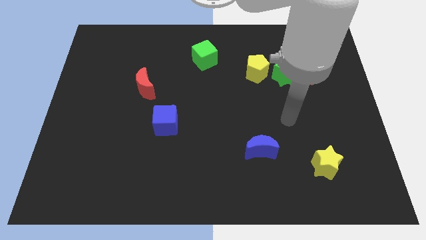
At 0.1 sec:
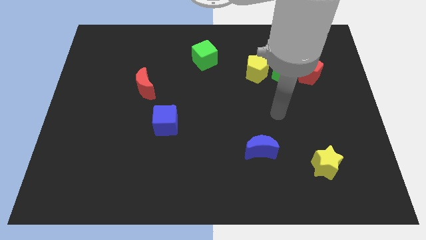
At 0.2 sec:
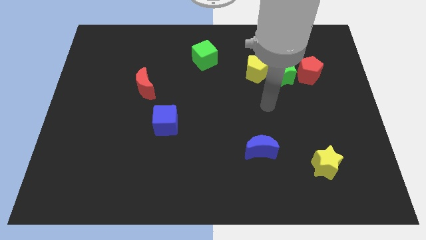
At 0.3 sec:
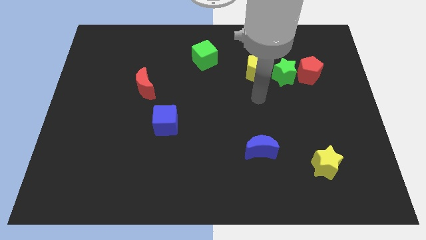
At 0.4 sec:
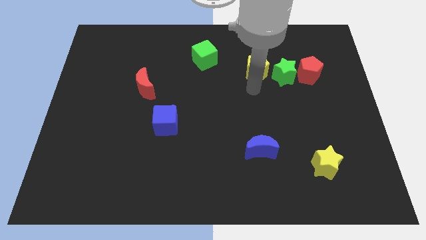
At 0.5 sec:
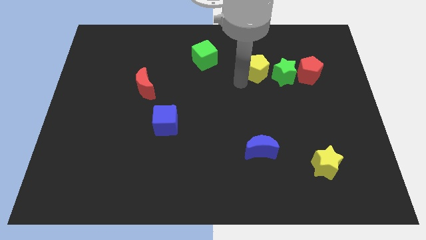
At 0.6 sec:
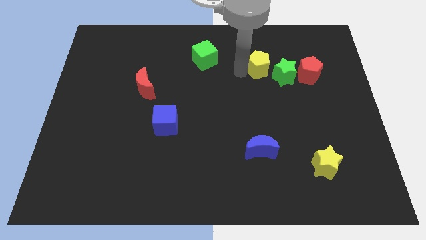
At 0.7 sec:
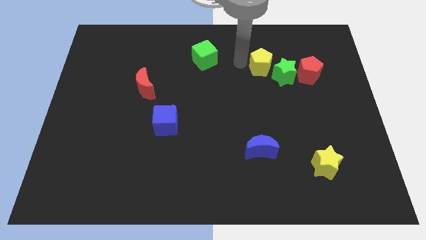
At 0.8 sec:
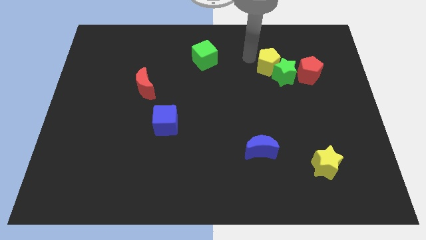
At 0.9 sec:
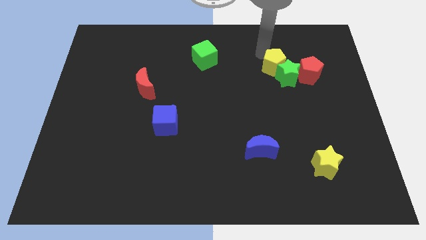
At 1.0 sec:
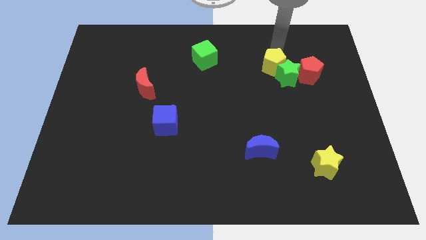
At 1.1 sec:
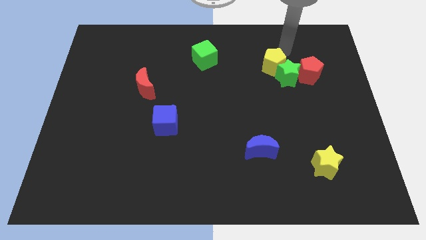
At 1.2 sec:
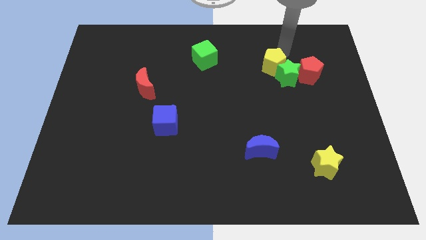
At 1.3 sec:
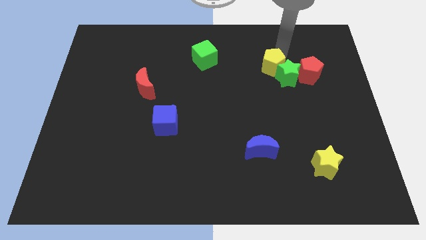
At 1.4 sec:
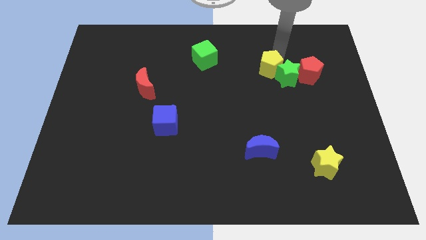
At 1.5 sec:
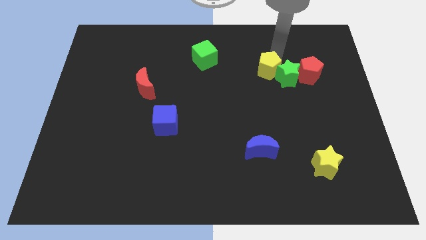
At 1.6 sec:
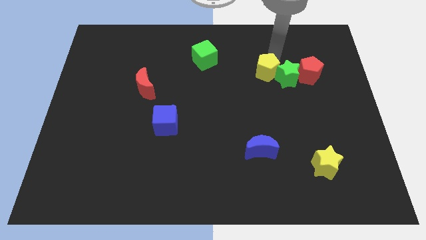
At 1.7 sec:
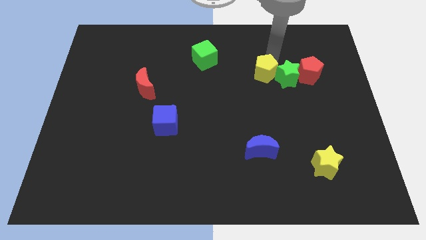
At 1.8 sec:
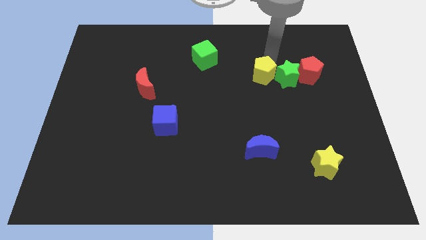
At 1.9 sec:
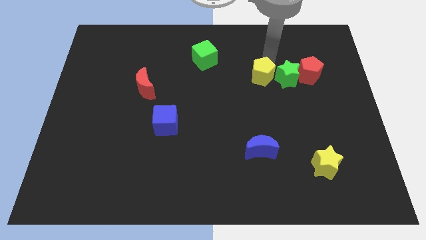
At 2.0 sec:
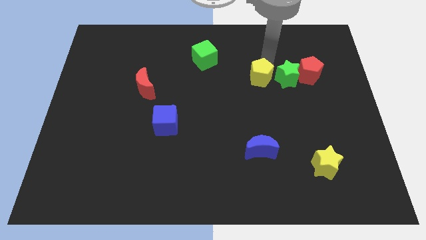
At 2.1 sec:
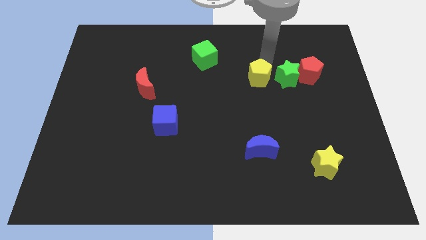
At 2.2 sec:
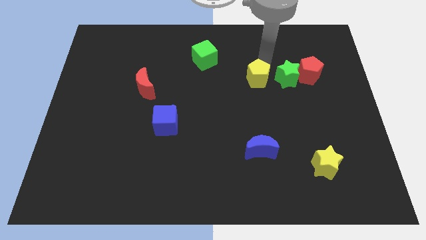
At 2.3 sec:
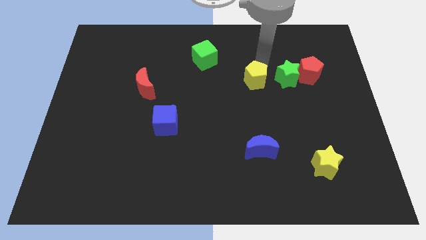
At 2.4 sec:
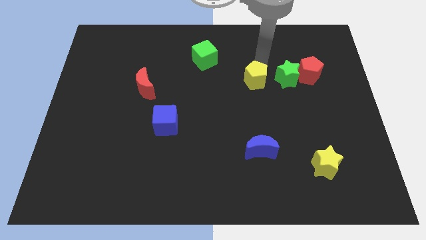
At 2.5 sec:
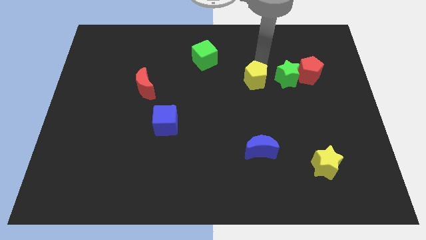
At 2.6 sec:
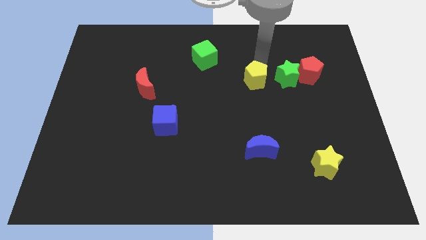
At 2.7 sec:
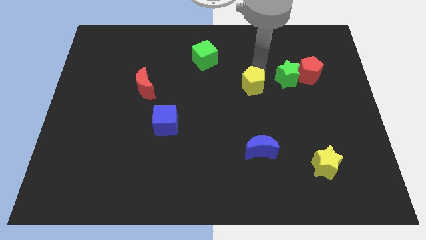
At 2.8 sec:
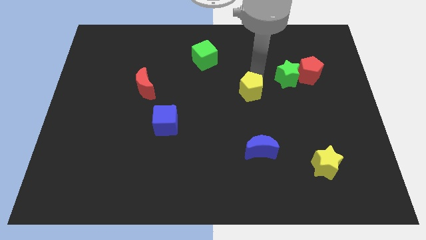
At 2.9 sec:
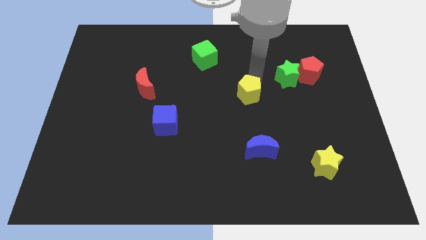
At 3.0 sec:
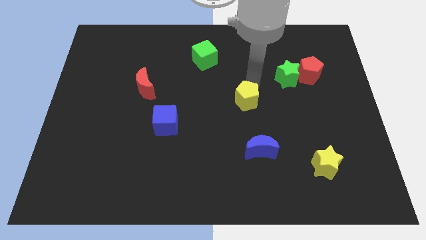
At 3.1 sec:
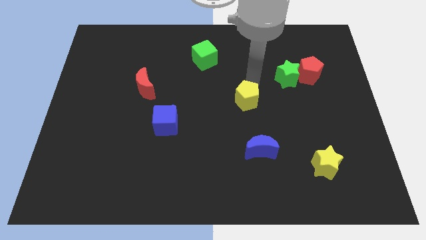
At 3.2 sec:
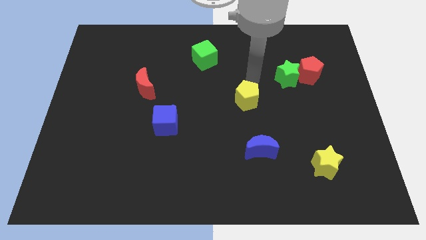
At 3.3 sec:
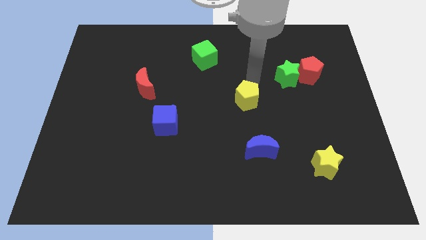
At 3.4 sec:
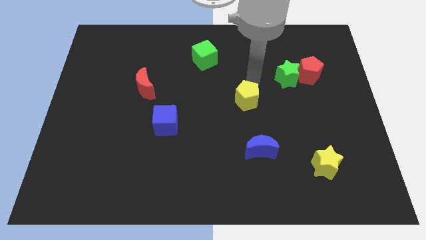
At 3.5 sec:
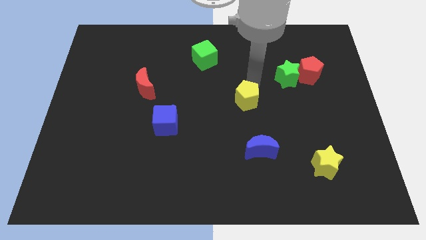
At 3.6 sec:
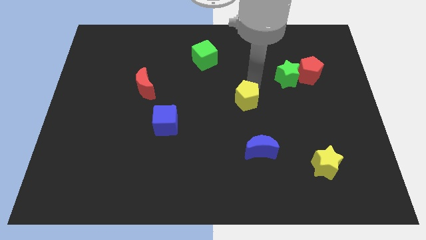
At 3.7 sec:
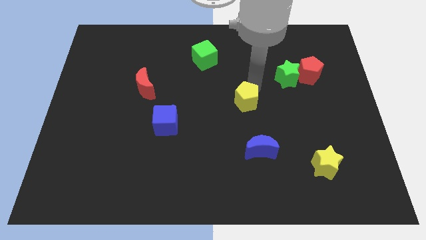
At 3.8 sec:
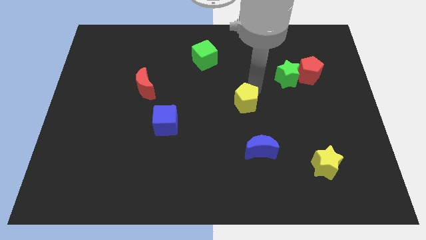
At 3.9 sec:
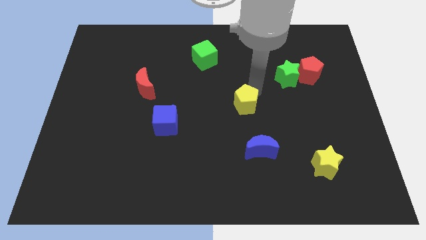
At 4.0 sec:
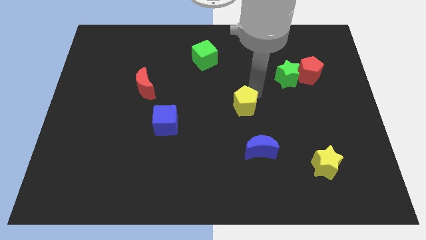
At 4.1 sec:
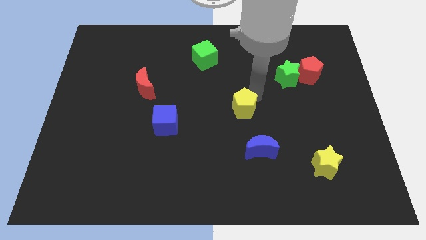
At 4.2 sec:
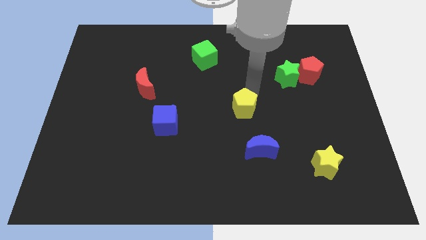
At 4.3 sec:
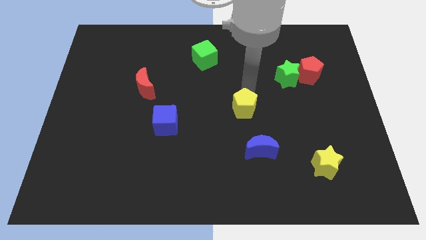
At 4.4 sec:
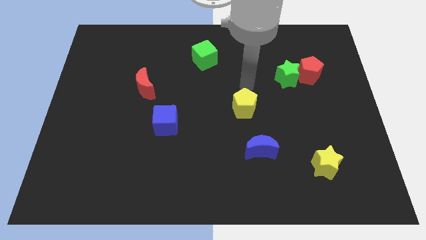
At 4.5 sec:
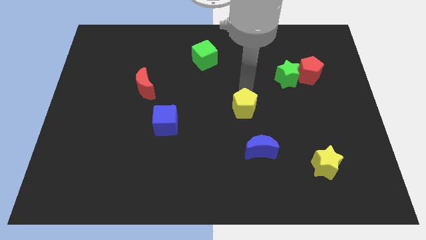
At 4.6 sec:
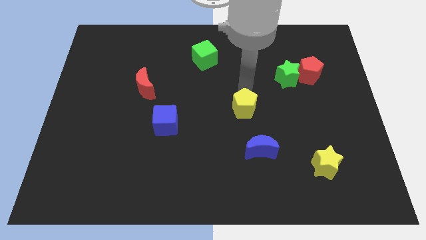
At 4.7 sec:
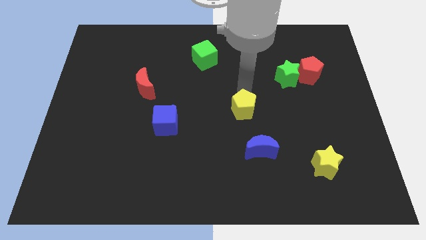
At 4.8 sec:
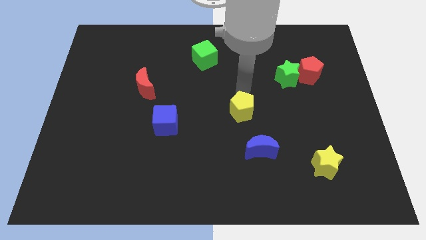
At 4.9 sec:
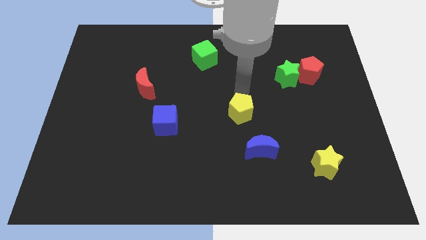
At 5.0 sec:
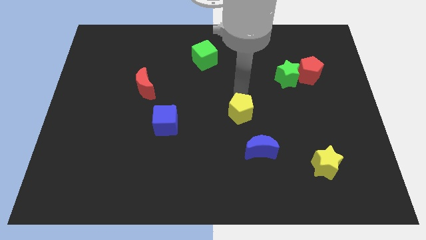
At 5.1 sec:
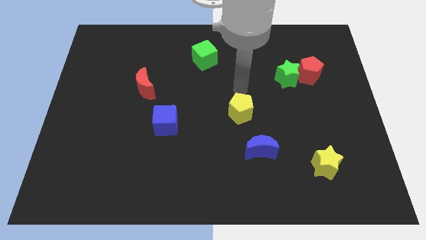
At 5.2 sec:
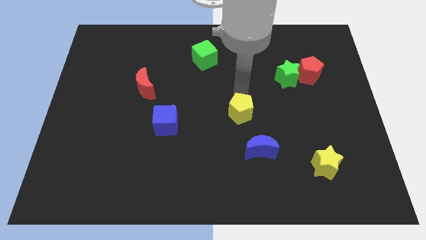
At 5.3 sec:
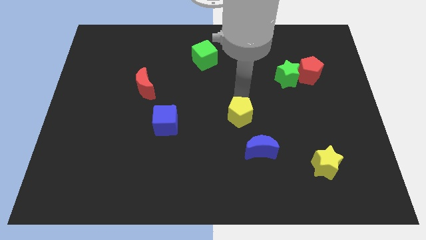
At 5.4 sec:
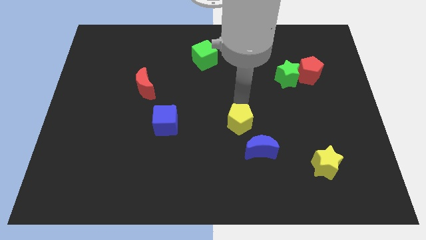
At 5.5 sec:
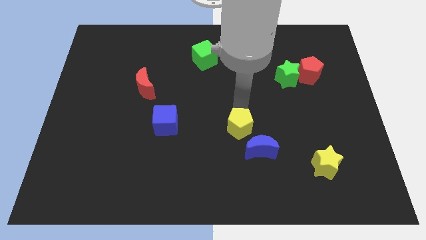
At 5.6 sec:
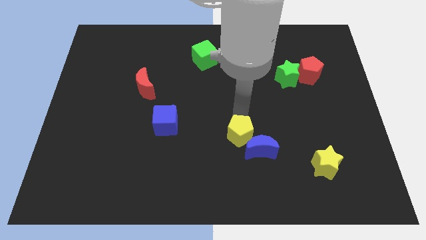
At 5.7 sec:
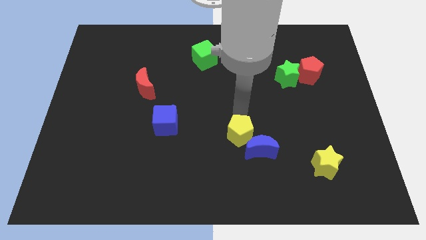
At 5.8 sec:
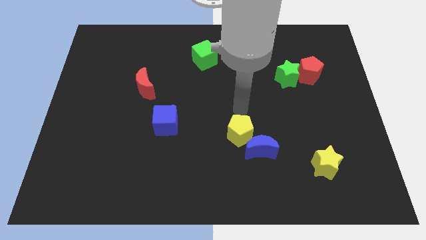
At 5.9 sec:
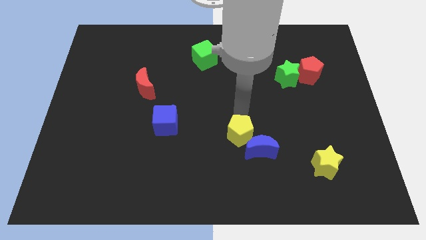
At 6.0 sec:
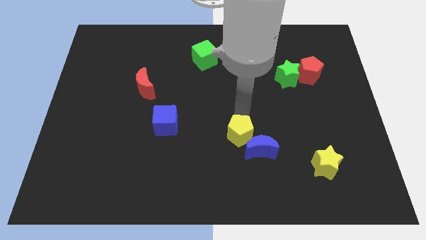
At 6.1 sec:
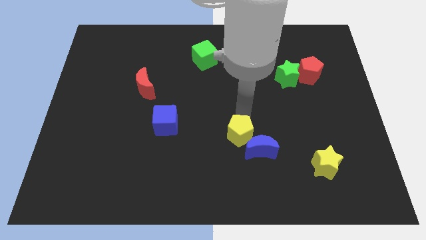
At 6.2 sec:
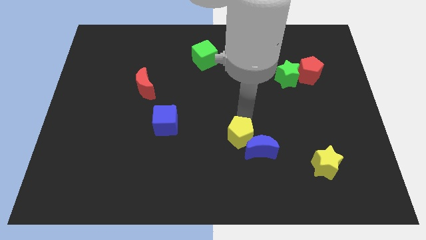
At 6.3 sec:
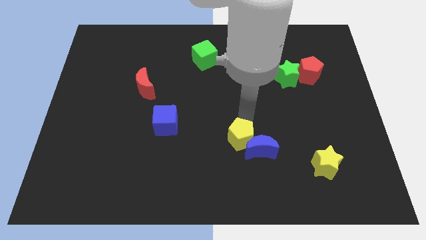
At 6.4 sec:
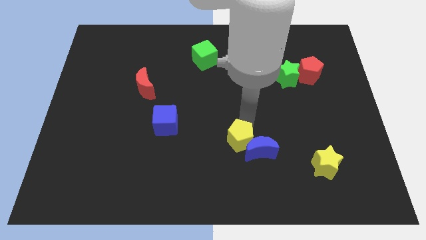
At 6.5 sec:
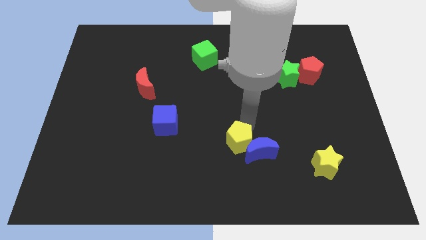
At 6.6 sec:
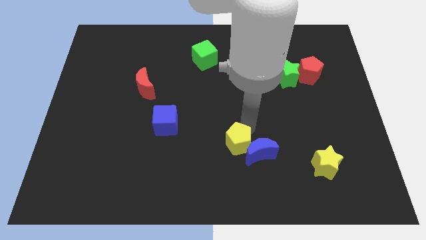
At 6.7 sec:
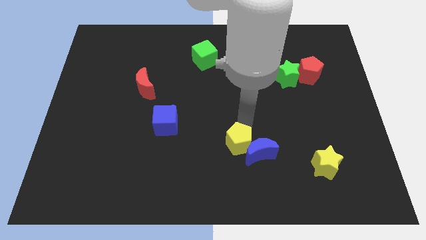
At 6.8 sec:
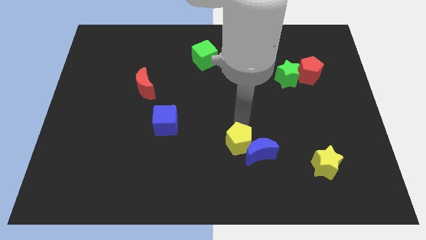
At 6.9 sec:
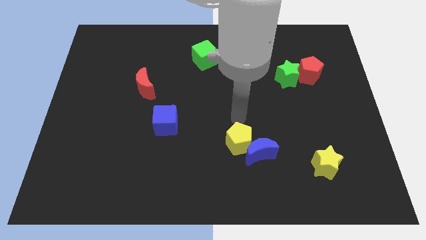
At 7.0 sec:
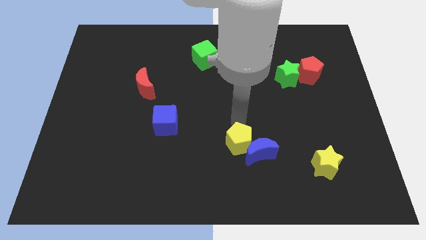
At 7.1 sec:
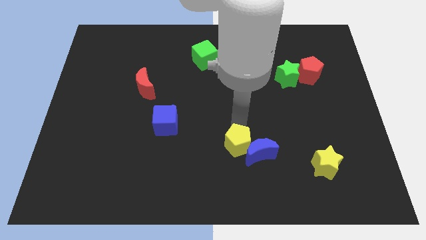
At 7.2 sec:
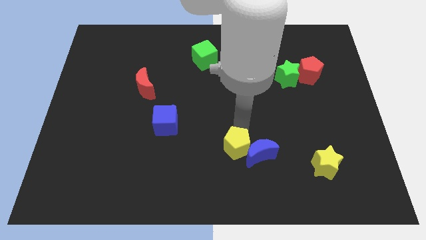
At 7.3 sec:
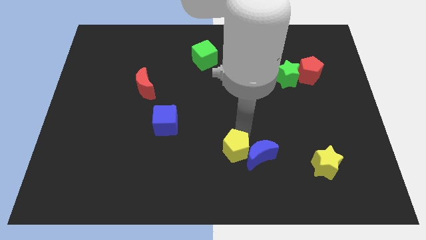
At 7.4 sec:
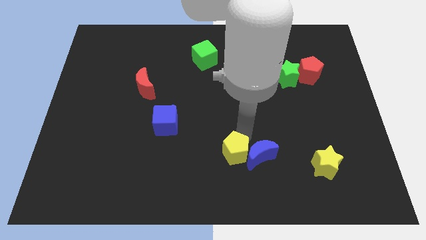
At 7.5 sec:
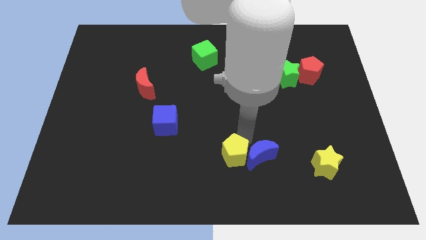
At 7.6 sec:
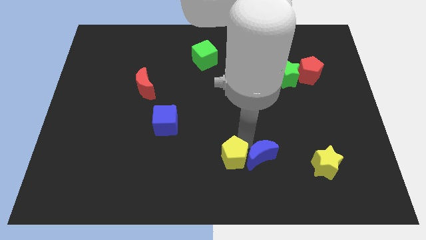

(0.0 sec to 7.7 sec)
slide the yellow pentagon to the bottom side

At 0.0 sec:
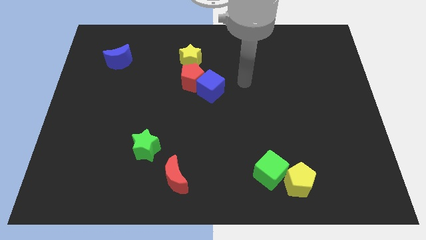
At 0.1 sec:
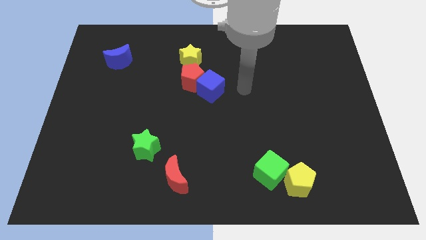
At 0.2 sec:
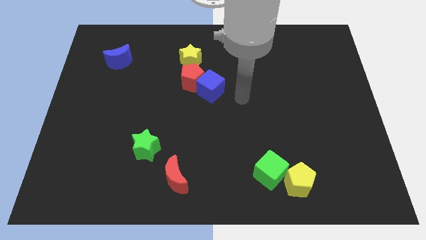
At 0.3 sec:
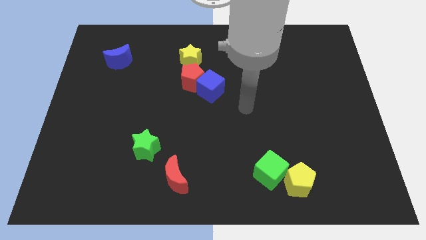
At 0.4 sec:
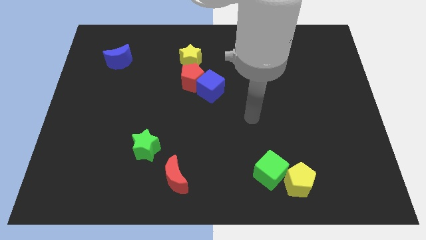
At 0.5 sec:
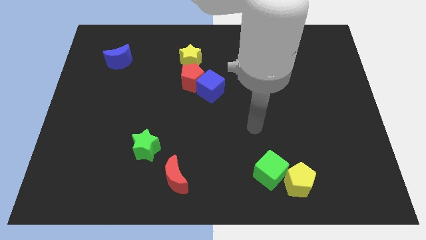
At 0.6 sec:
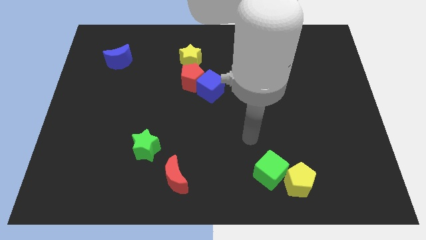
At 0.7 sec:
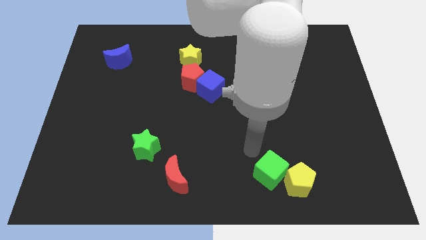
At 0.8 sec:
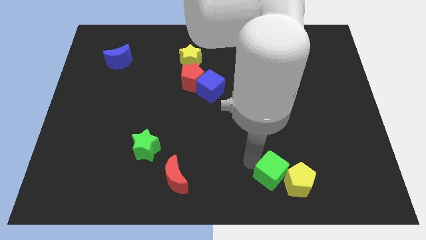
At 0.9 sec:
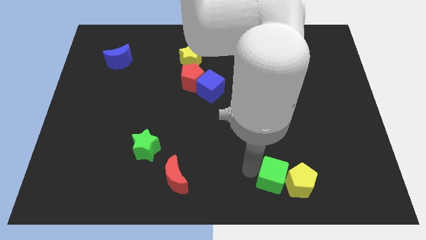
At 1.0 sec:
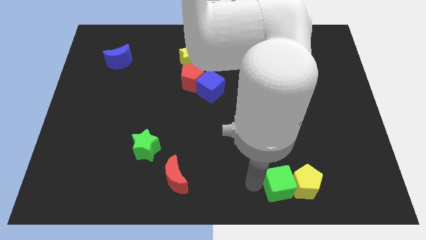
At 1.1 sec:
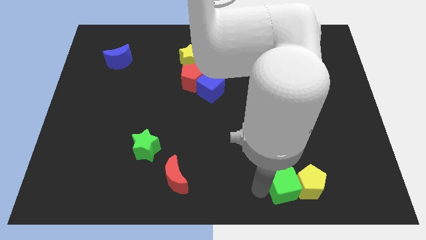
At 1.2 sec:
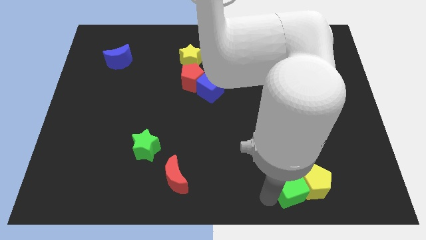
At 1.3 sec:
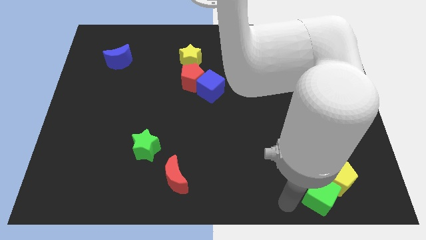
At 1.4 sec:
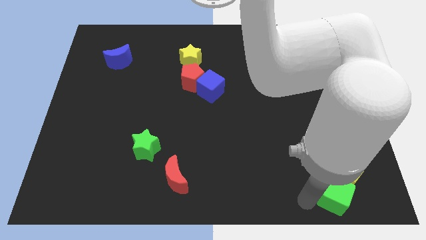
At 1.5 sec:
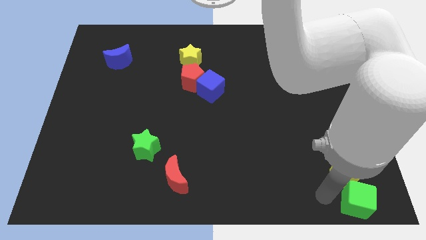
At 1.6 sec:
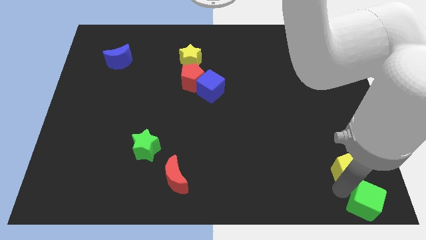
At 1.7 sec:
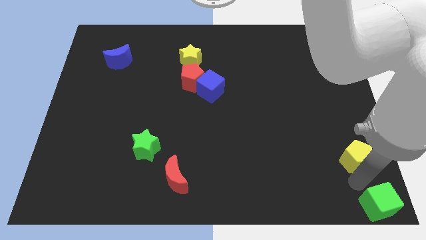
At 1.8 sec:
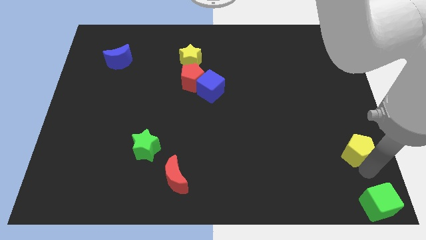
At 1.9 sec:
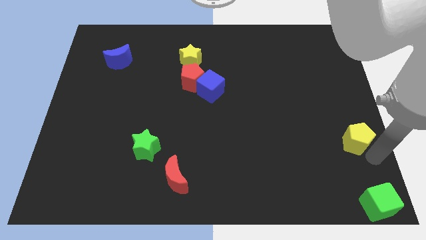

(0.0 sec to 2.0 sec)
move the yellow pentagon to the right side
